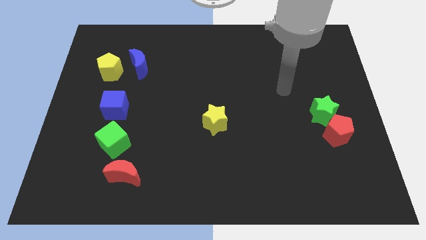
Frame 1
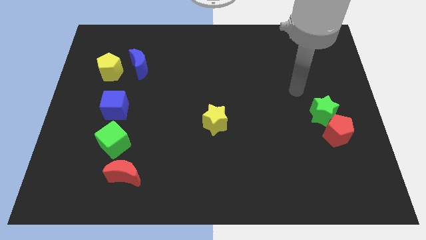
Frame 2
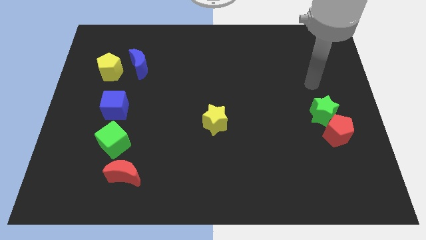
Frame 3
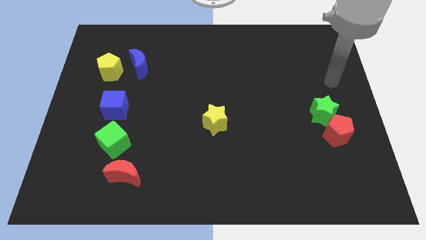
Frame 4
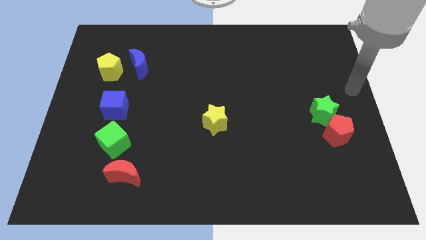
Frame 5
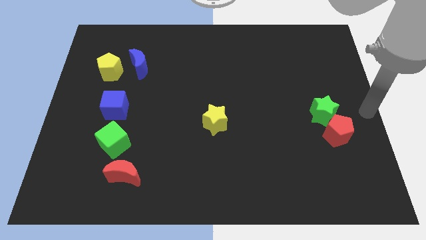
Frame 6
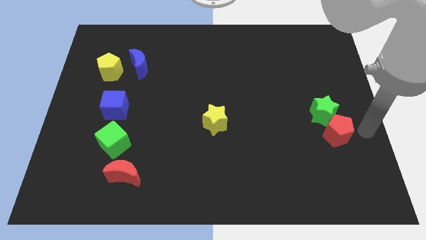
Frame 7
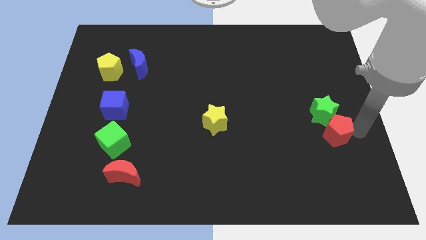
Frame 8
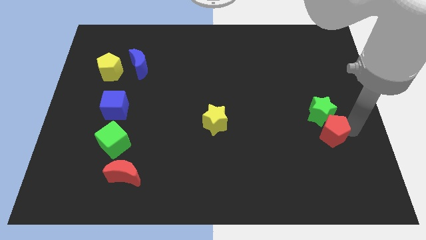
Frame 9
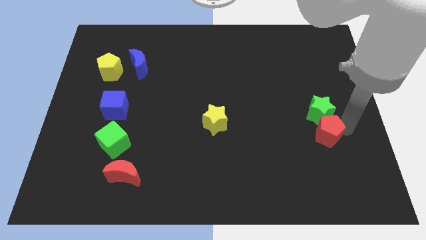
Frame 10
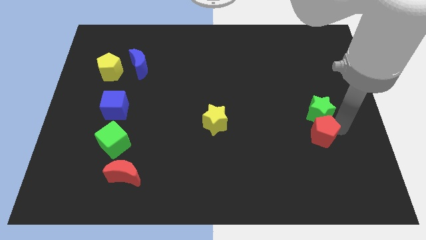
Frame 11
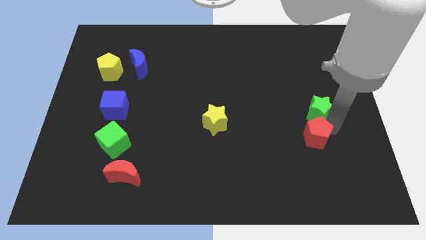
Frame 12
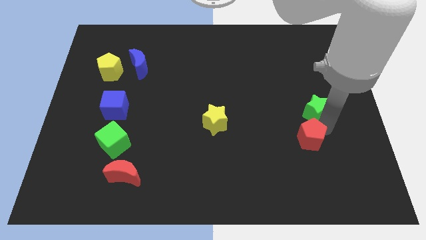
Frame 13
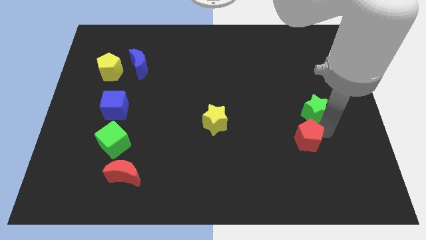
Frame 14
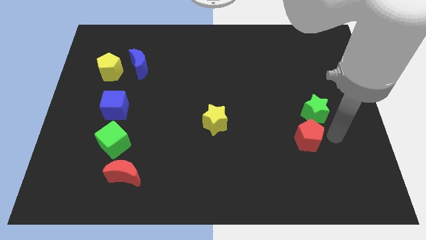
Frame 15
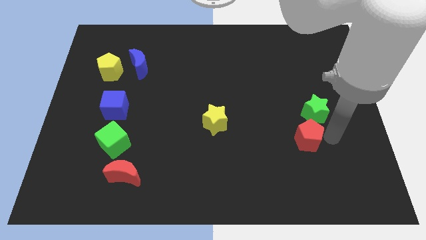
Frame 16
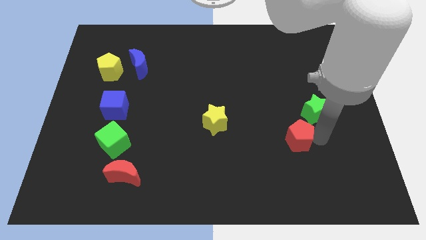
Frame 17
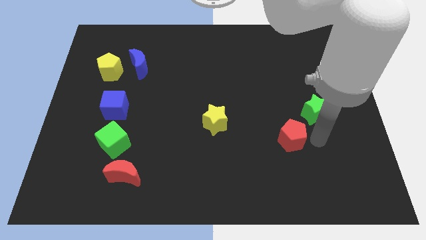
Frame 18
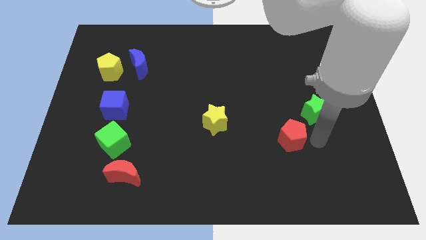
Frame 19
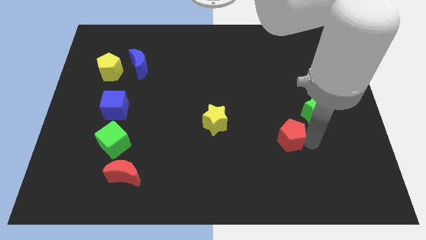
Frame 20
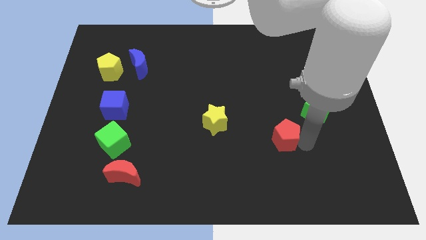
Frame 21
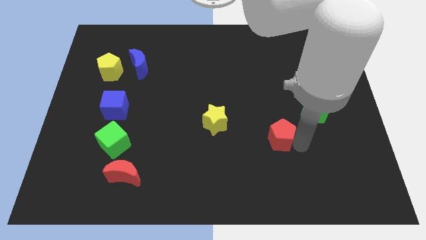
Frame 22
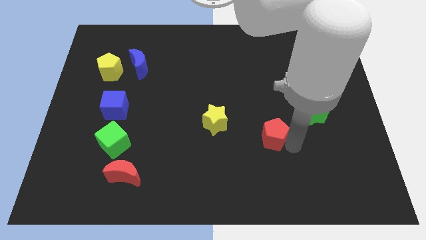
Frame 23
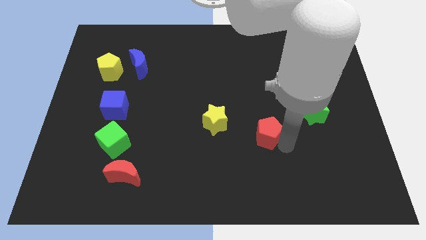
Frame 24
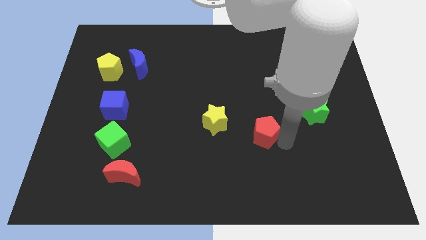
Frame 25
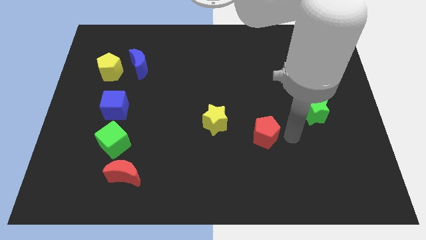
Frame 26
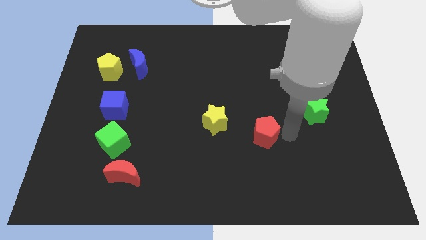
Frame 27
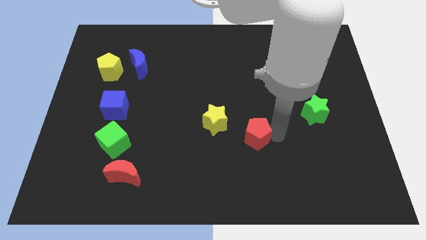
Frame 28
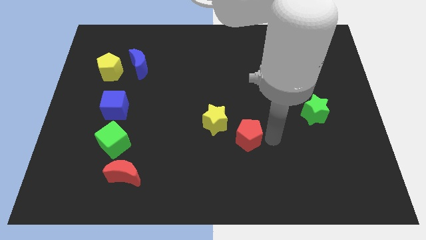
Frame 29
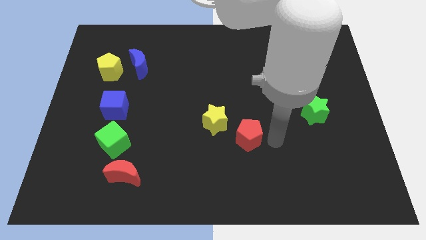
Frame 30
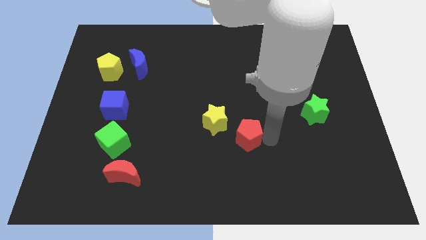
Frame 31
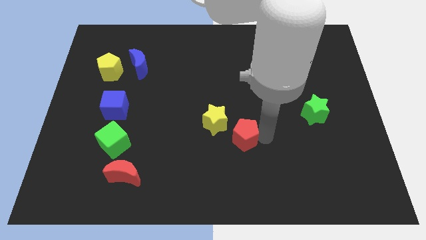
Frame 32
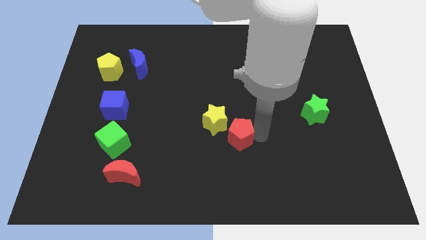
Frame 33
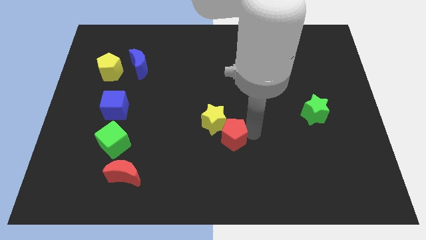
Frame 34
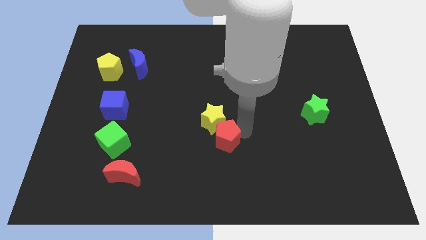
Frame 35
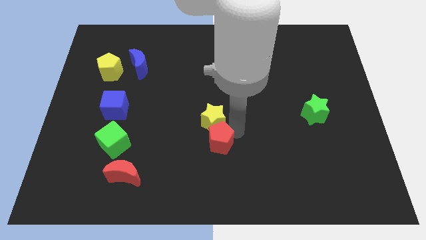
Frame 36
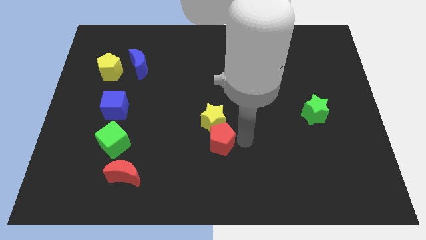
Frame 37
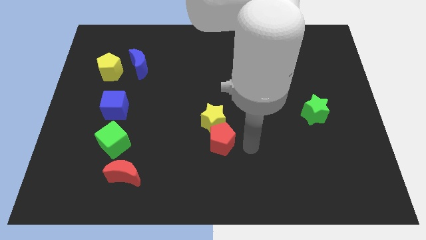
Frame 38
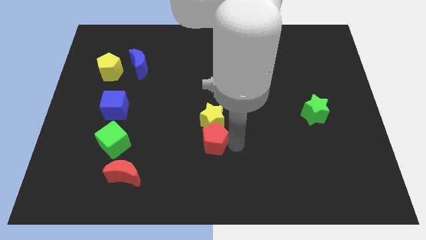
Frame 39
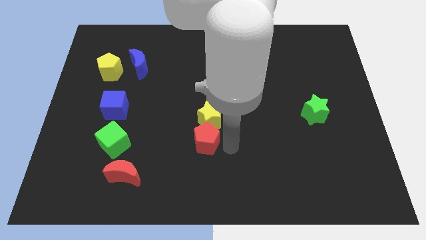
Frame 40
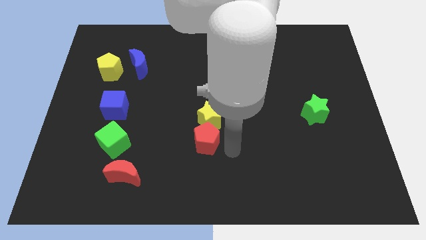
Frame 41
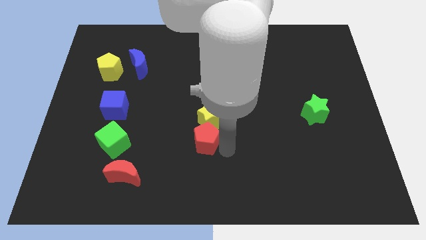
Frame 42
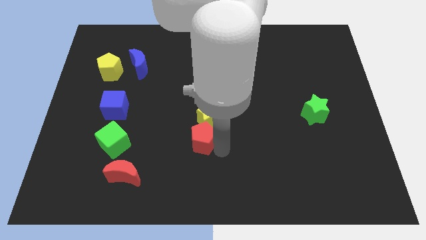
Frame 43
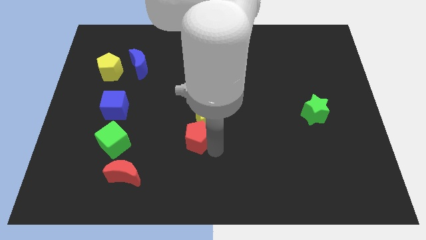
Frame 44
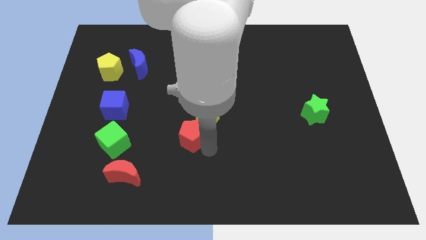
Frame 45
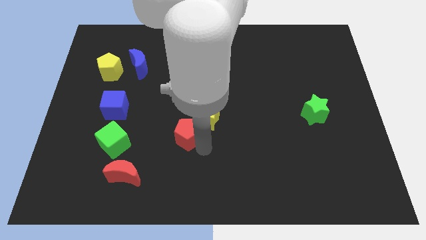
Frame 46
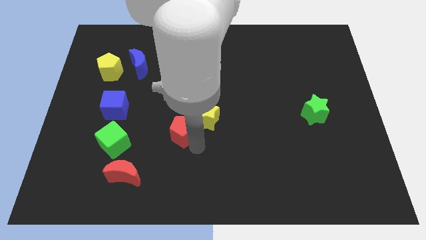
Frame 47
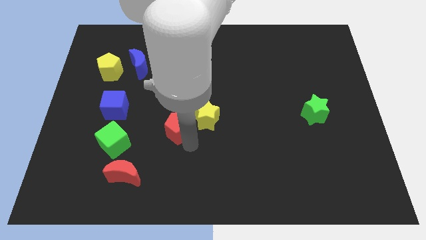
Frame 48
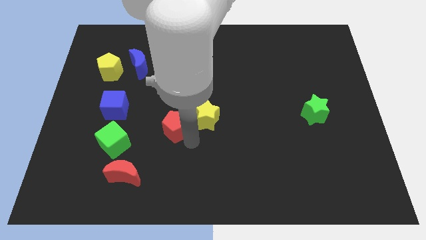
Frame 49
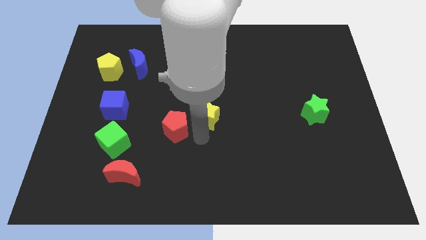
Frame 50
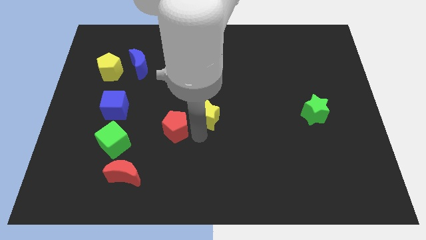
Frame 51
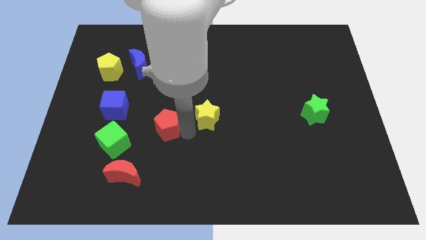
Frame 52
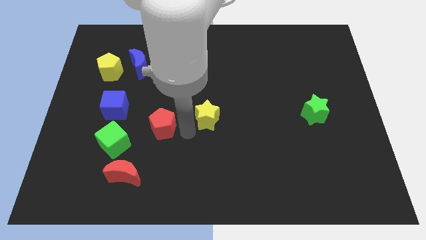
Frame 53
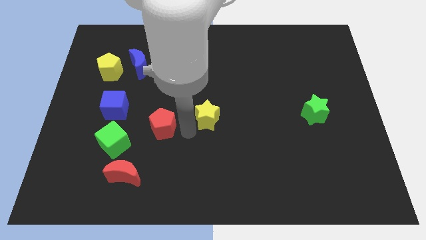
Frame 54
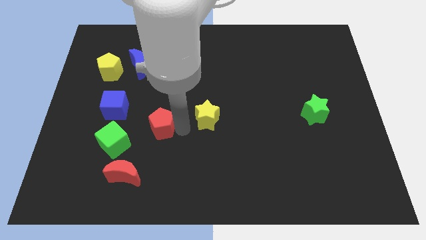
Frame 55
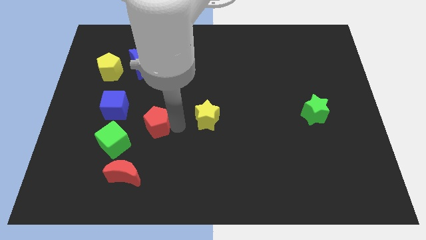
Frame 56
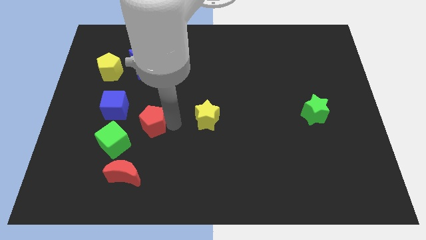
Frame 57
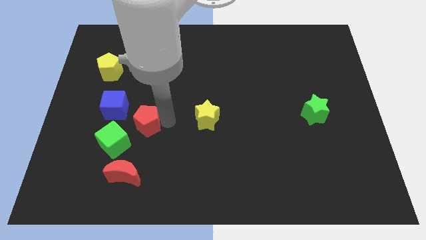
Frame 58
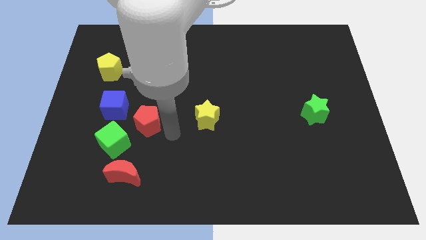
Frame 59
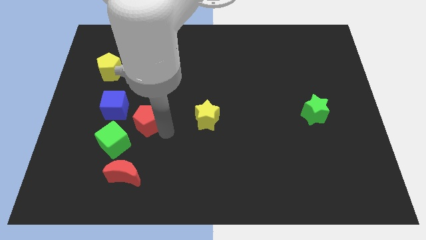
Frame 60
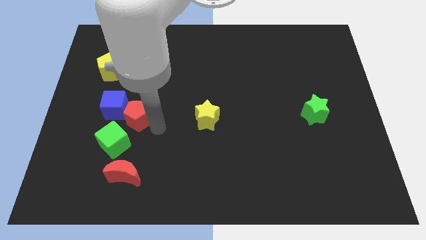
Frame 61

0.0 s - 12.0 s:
put the red pentagon next to the blue cube

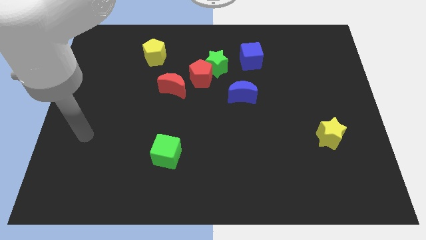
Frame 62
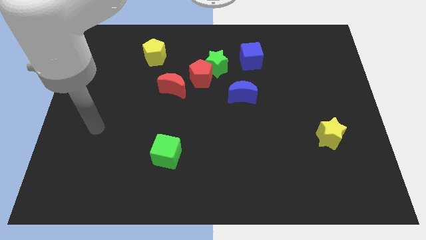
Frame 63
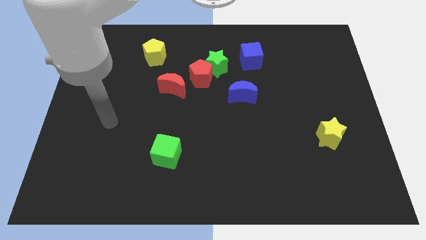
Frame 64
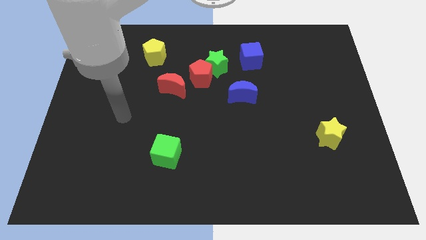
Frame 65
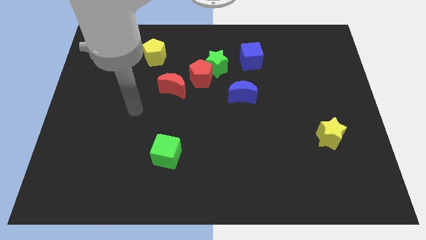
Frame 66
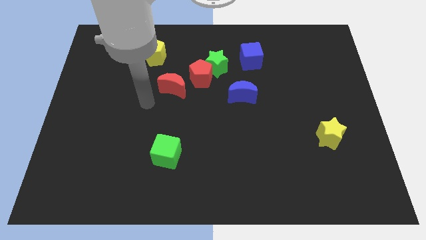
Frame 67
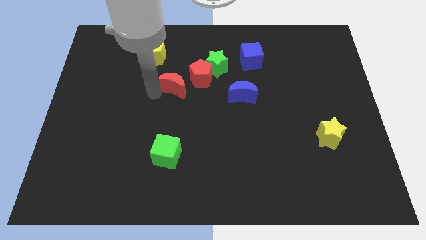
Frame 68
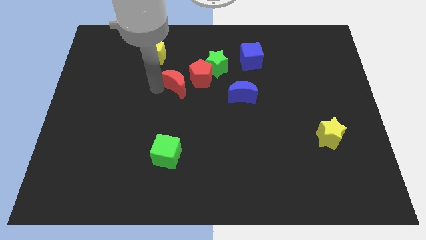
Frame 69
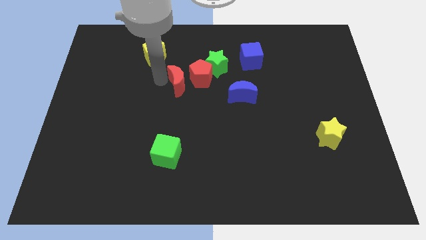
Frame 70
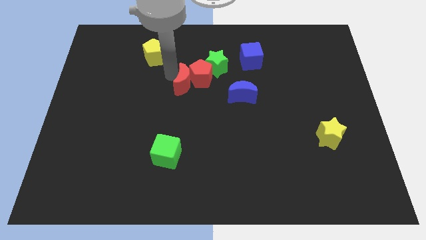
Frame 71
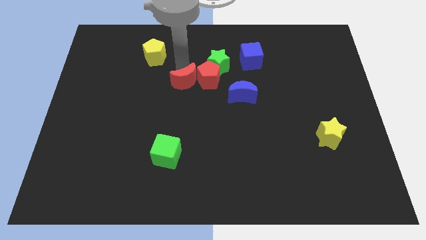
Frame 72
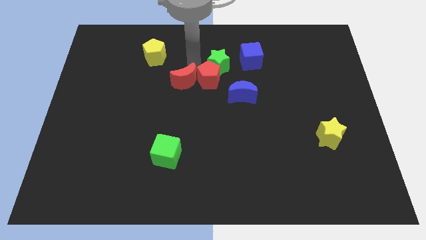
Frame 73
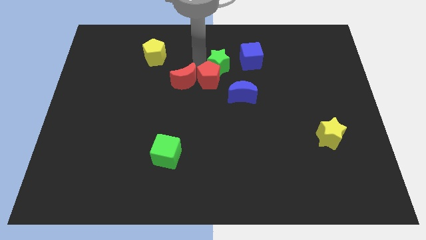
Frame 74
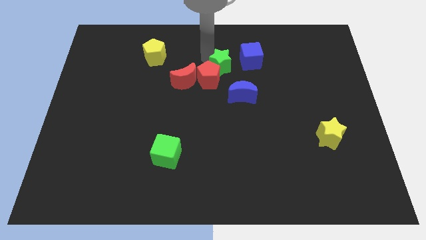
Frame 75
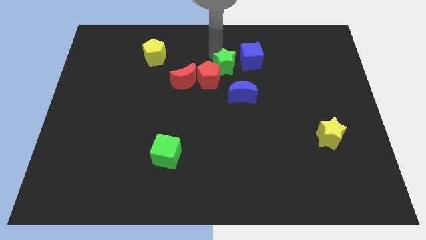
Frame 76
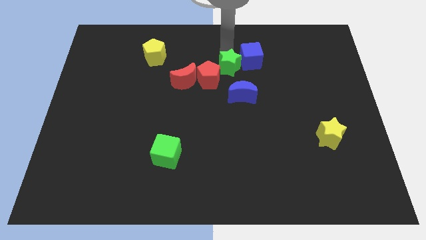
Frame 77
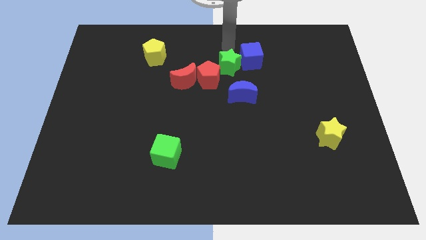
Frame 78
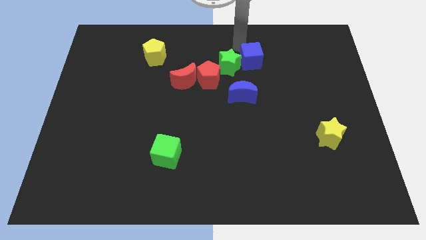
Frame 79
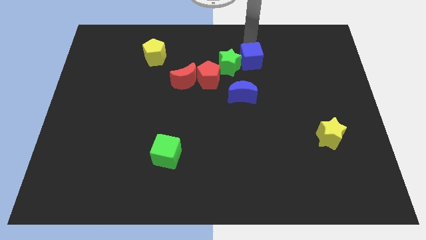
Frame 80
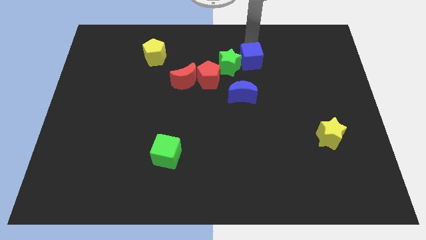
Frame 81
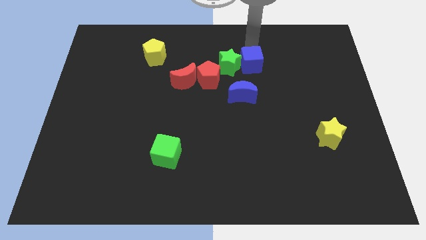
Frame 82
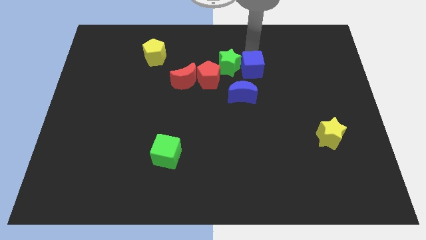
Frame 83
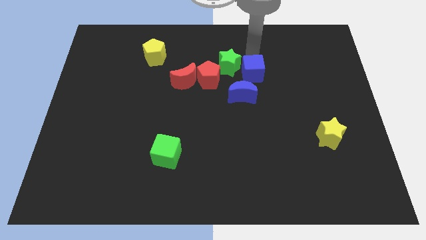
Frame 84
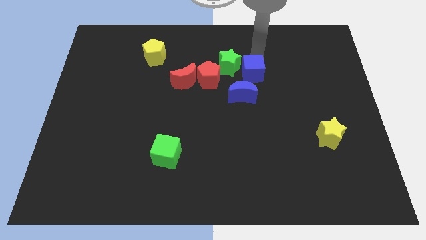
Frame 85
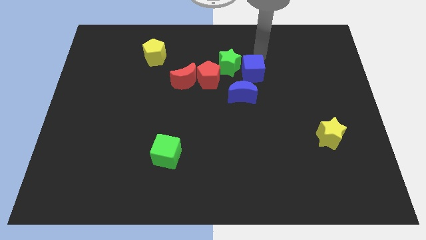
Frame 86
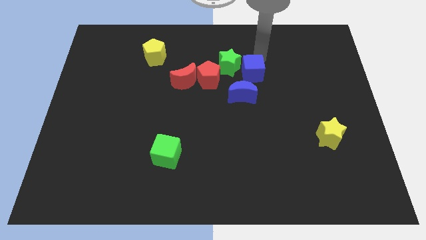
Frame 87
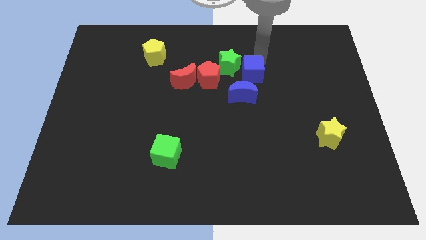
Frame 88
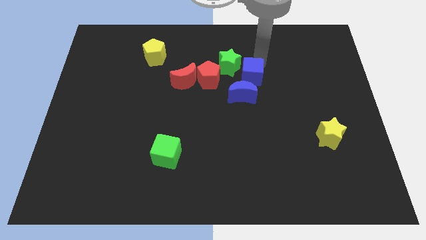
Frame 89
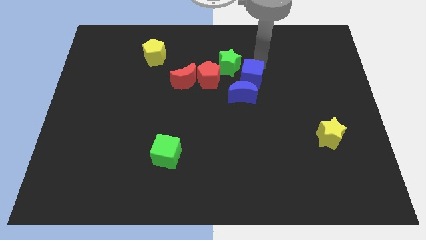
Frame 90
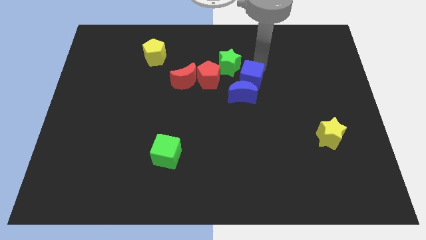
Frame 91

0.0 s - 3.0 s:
push the blue cube to the blue moon
